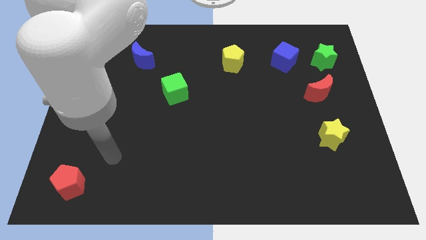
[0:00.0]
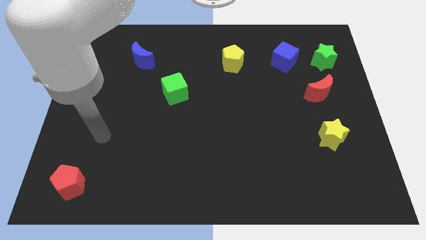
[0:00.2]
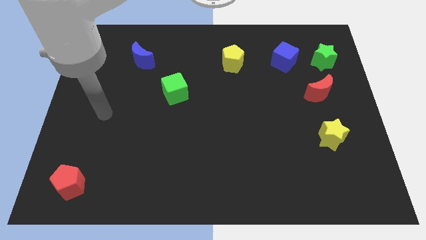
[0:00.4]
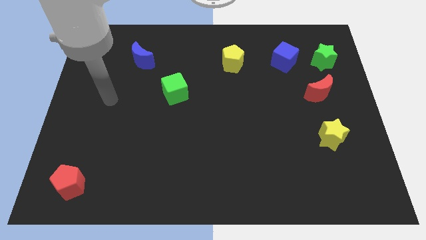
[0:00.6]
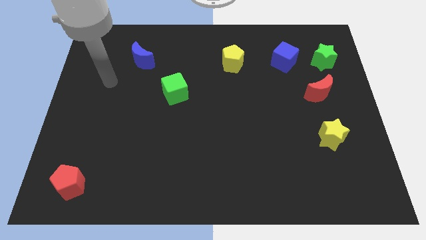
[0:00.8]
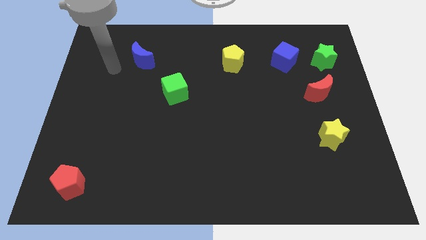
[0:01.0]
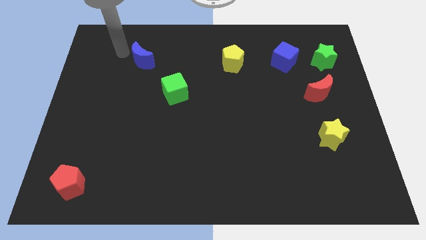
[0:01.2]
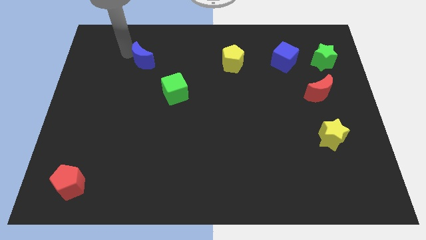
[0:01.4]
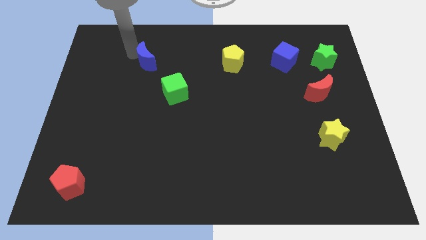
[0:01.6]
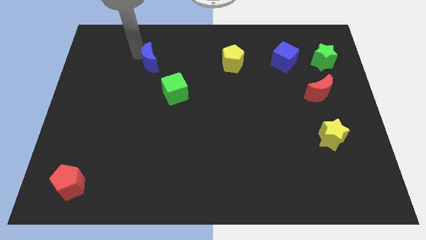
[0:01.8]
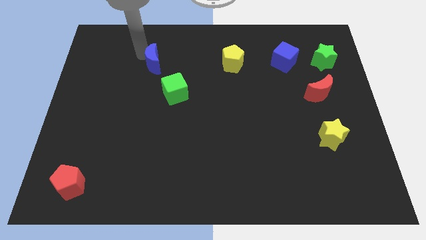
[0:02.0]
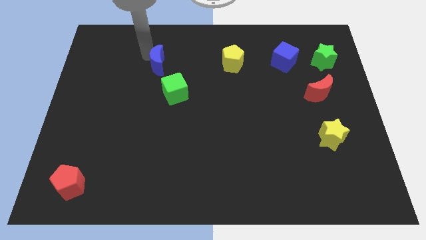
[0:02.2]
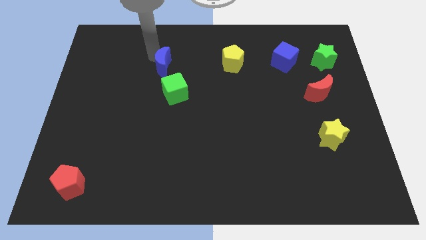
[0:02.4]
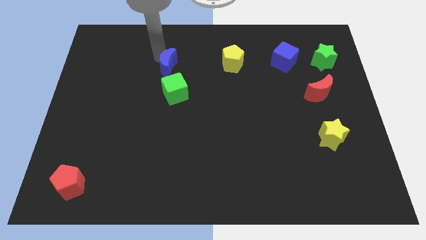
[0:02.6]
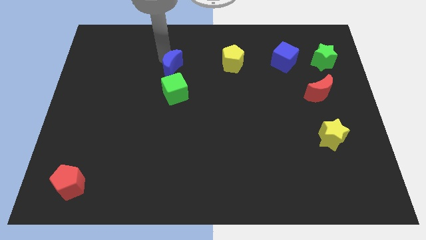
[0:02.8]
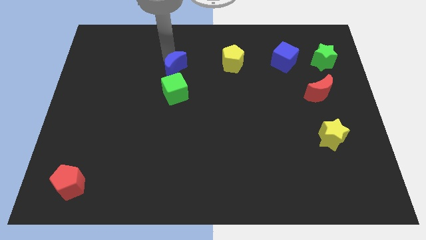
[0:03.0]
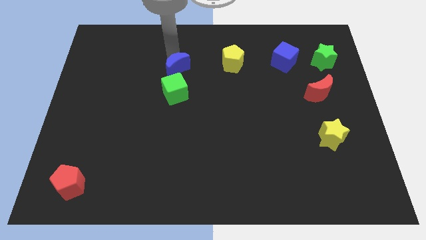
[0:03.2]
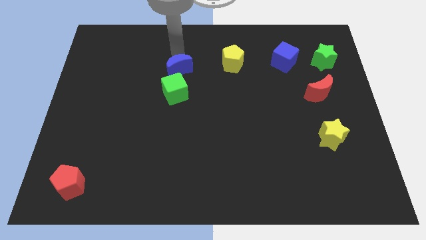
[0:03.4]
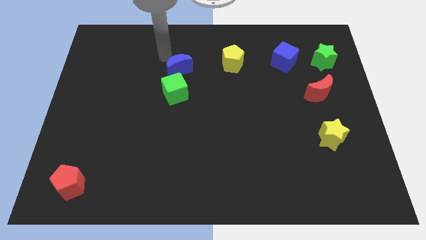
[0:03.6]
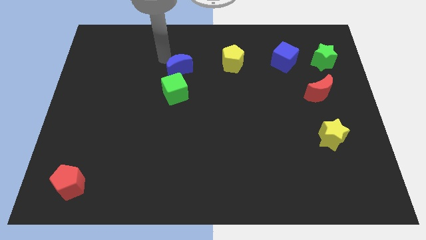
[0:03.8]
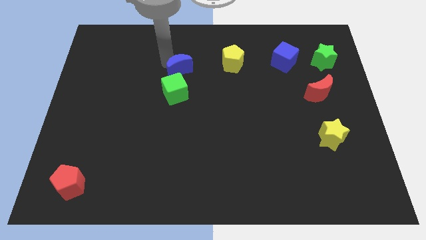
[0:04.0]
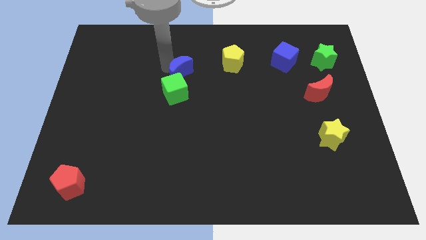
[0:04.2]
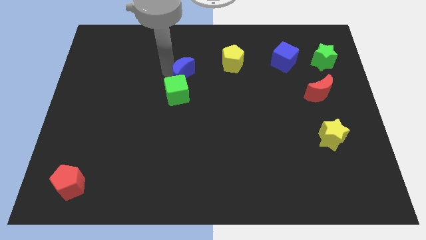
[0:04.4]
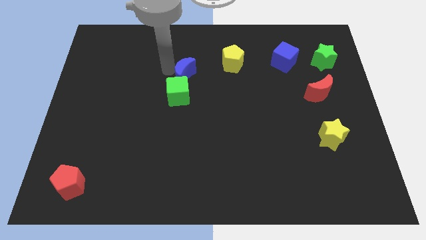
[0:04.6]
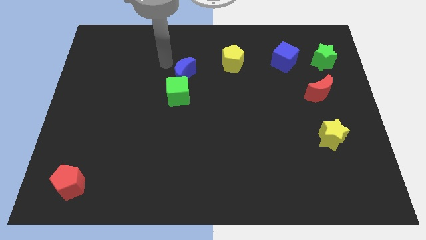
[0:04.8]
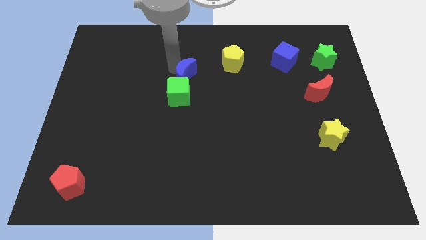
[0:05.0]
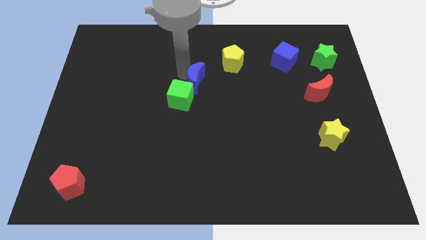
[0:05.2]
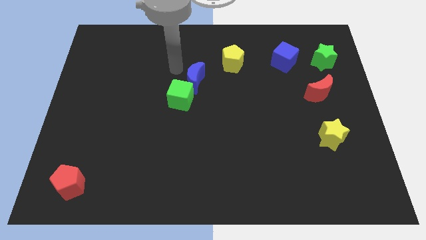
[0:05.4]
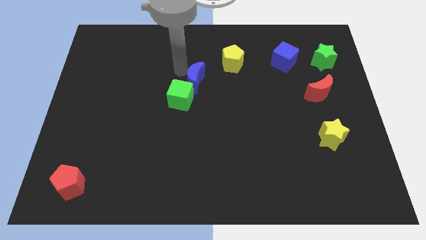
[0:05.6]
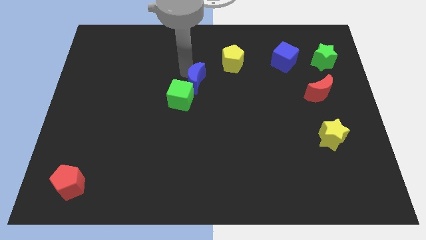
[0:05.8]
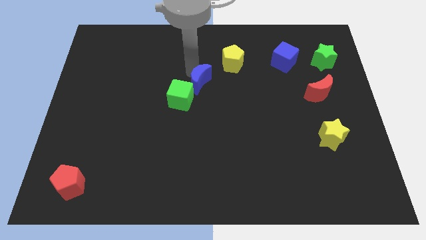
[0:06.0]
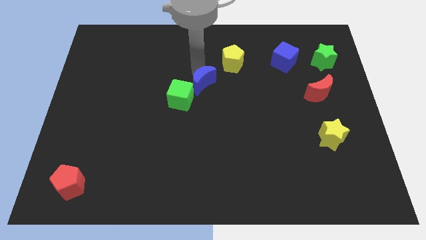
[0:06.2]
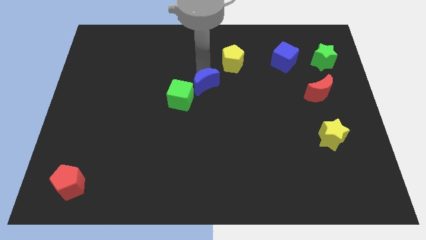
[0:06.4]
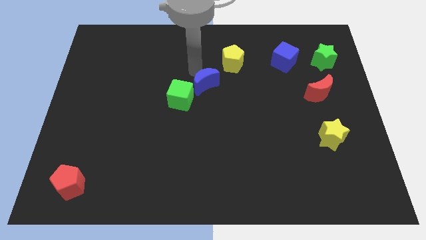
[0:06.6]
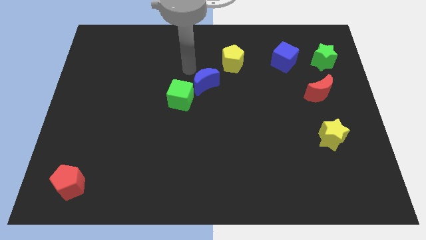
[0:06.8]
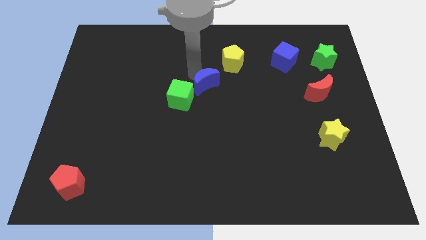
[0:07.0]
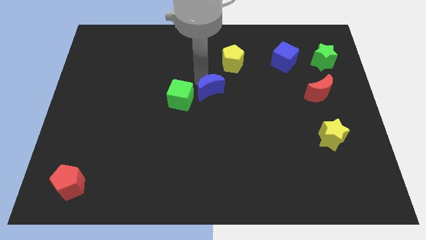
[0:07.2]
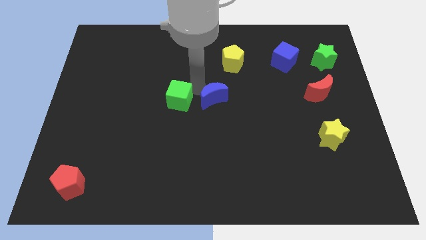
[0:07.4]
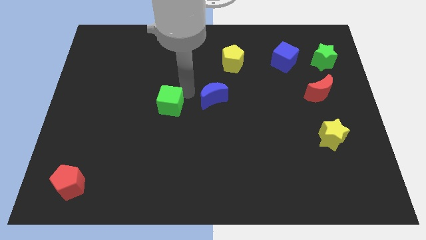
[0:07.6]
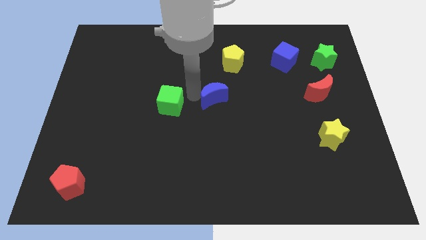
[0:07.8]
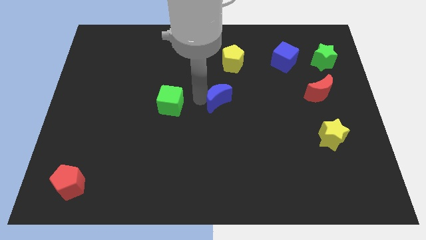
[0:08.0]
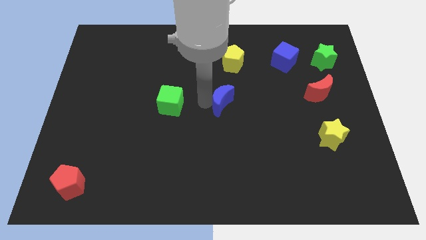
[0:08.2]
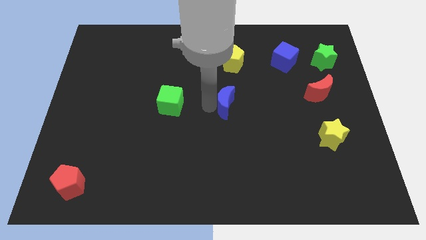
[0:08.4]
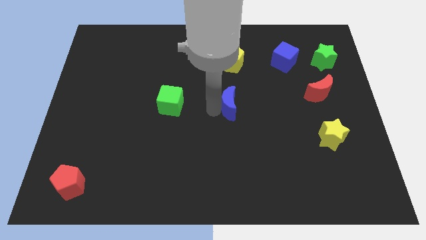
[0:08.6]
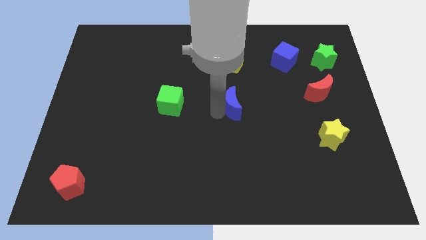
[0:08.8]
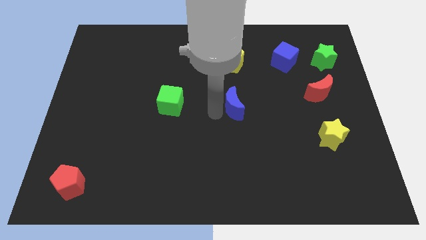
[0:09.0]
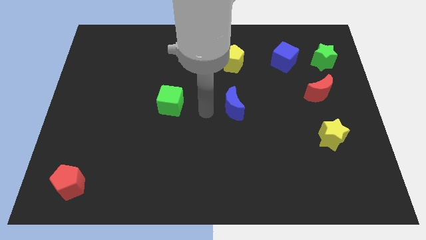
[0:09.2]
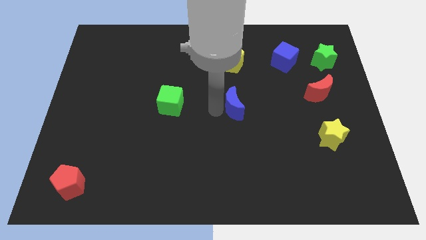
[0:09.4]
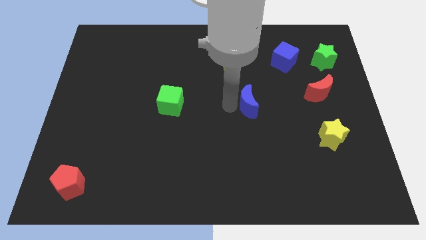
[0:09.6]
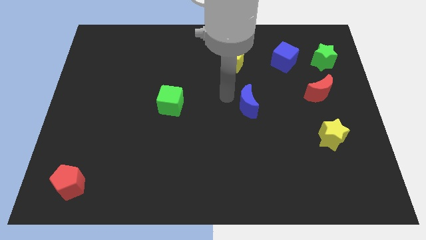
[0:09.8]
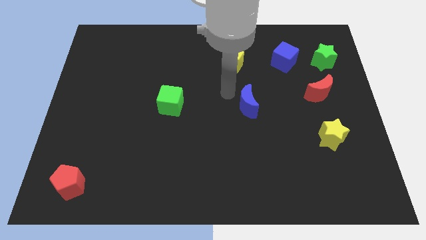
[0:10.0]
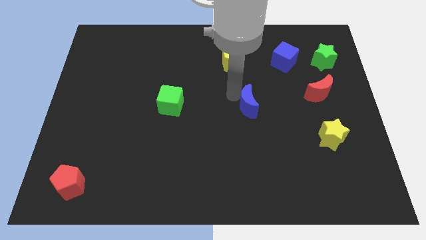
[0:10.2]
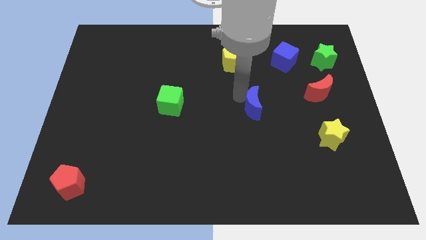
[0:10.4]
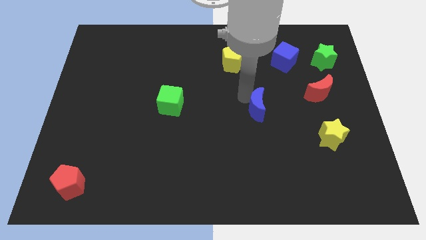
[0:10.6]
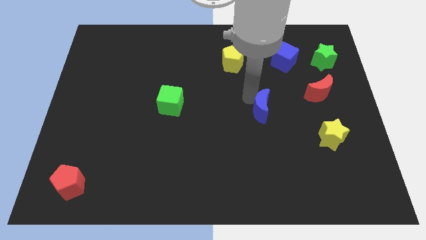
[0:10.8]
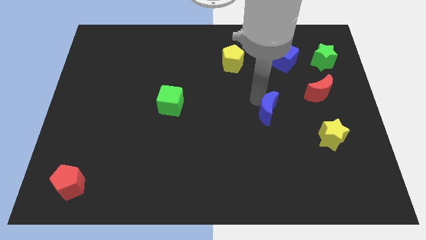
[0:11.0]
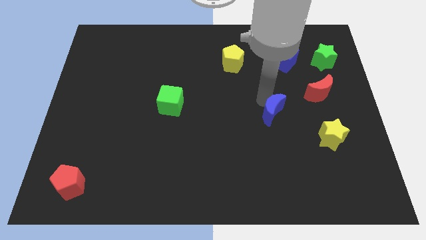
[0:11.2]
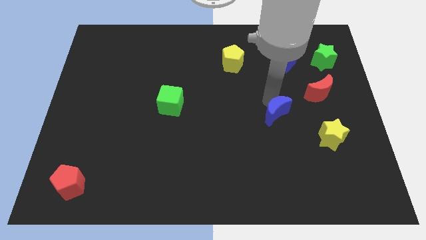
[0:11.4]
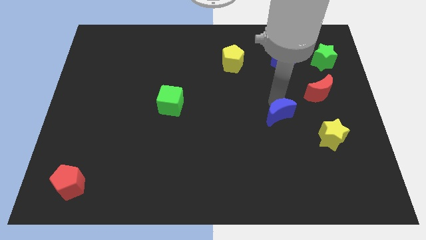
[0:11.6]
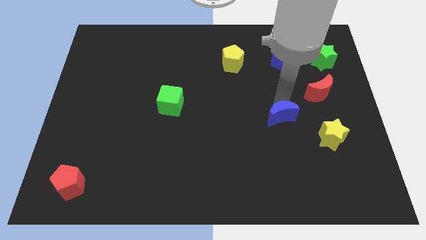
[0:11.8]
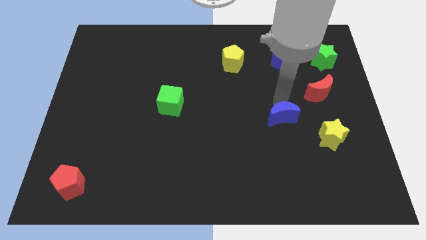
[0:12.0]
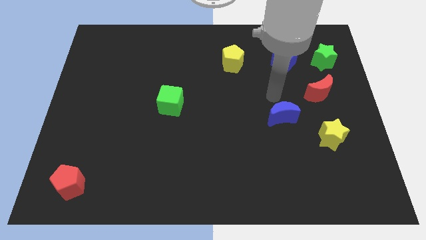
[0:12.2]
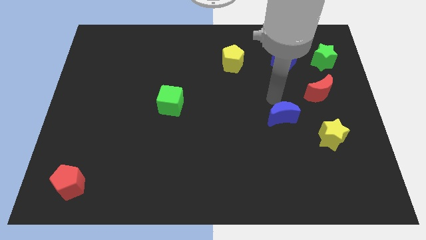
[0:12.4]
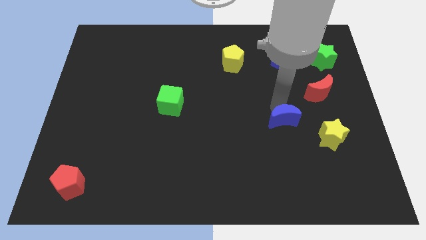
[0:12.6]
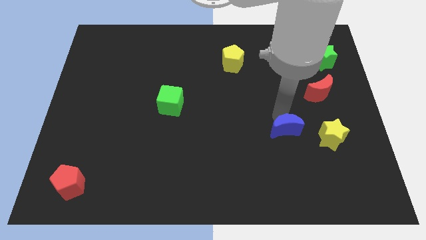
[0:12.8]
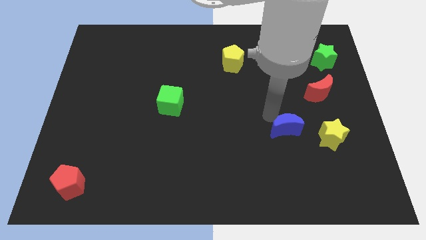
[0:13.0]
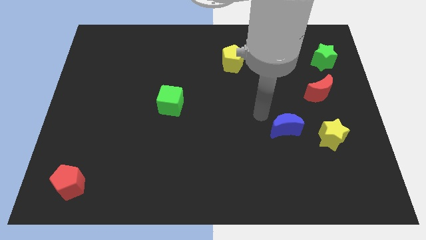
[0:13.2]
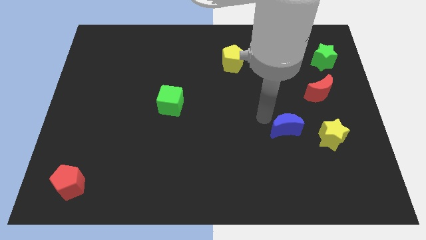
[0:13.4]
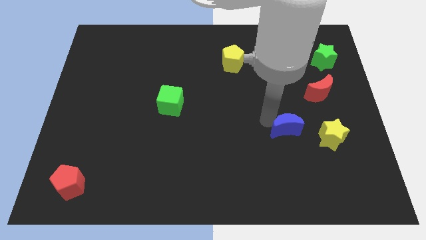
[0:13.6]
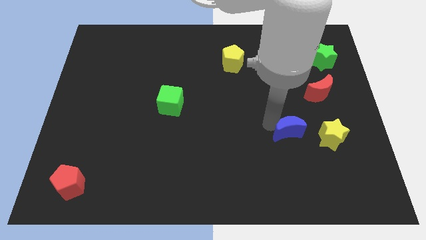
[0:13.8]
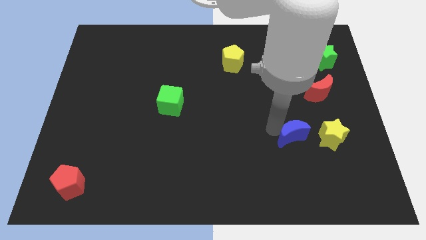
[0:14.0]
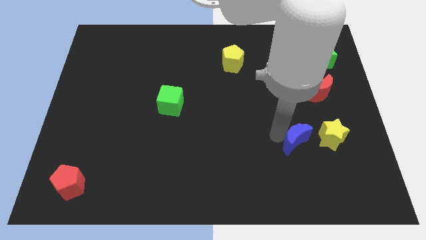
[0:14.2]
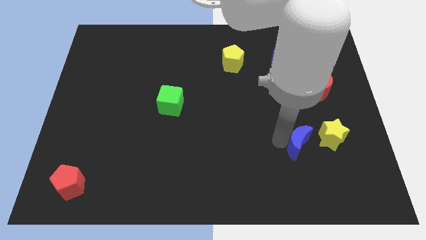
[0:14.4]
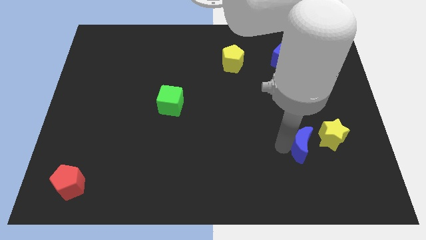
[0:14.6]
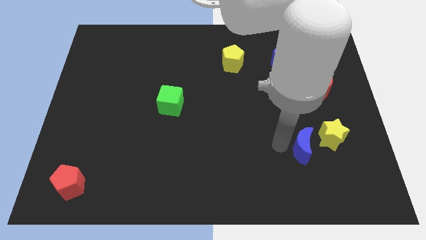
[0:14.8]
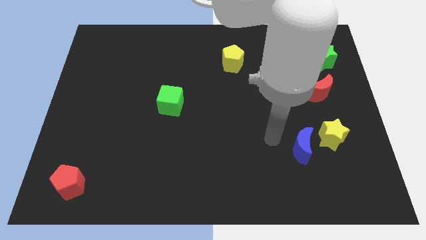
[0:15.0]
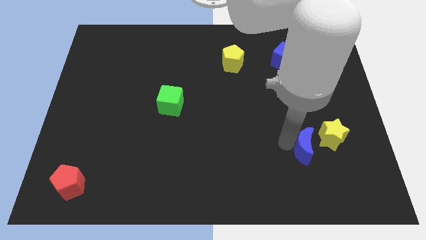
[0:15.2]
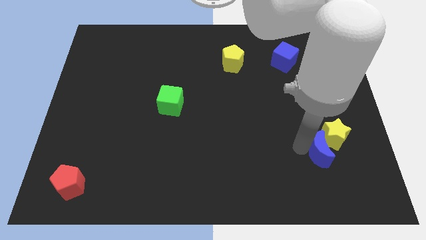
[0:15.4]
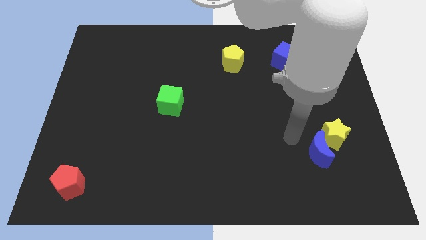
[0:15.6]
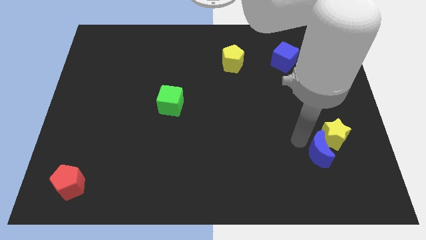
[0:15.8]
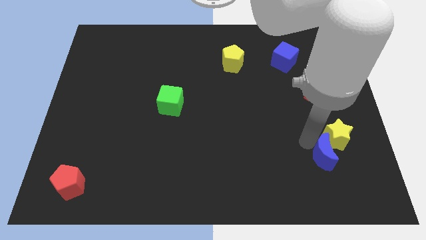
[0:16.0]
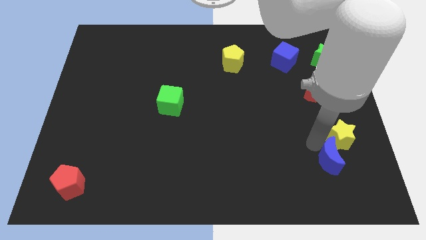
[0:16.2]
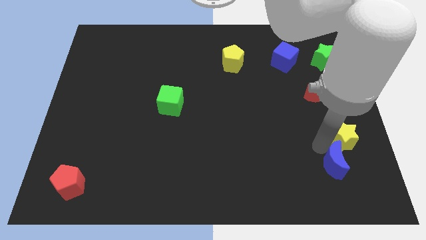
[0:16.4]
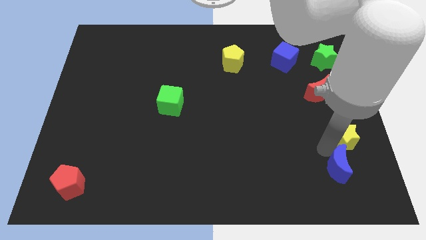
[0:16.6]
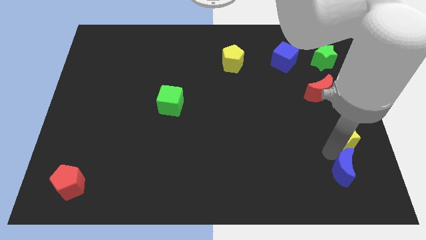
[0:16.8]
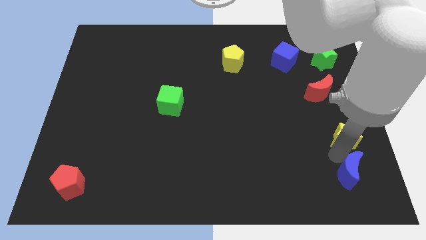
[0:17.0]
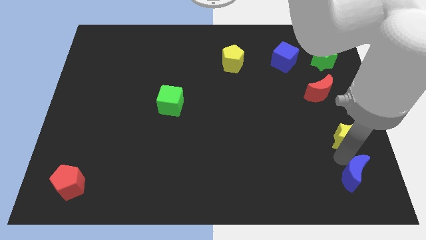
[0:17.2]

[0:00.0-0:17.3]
push the blue moon to the bottom right of the board
